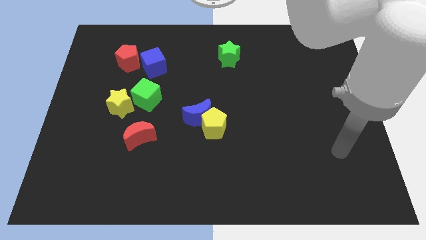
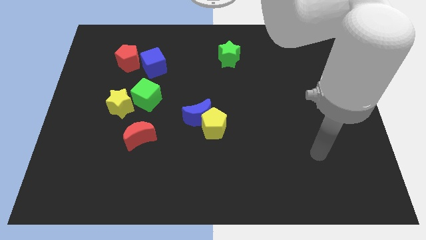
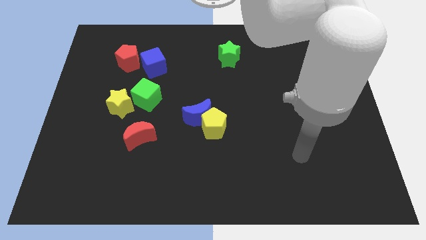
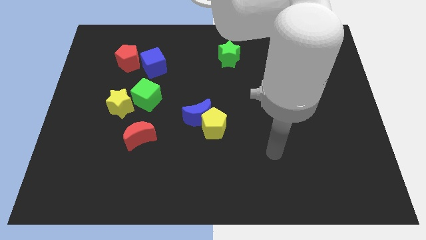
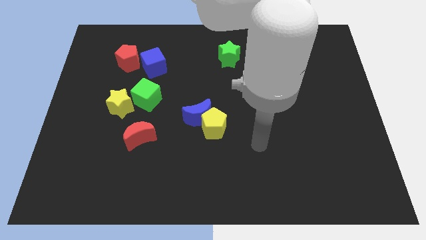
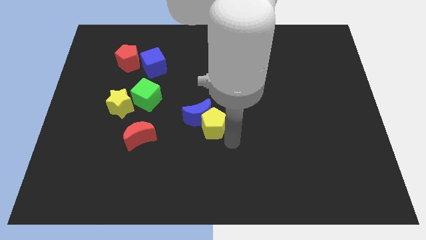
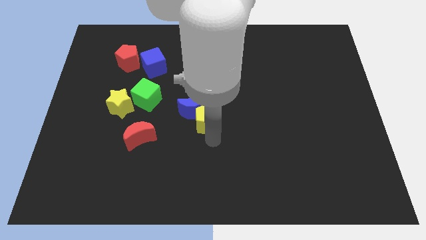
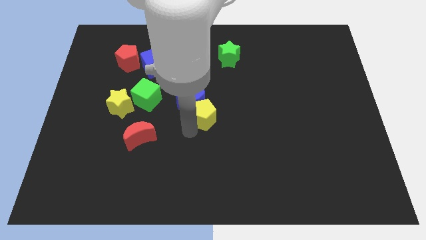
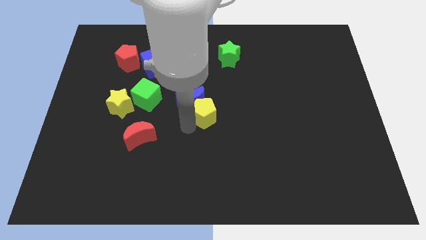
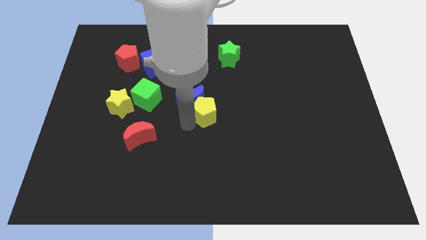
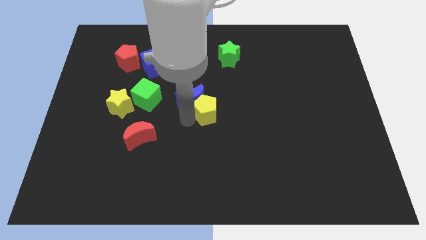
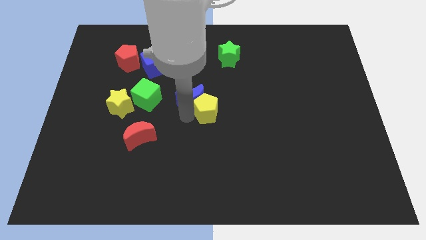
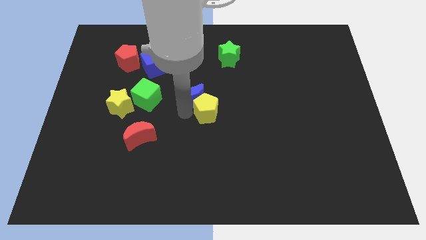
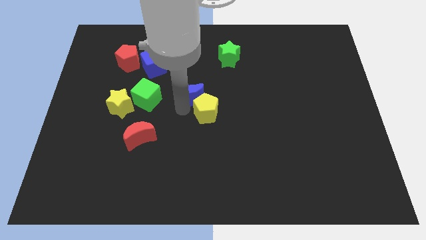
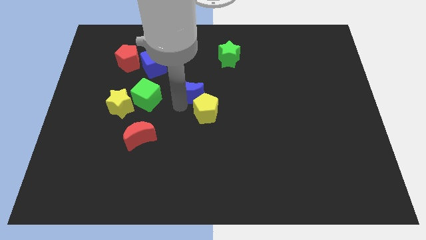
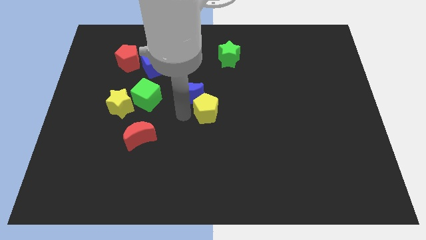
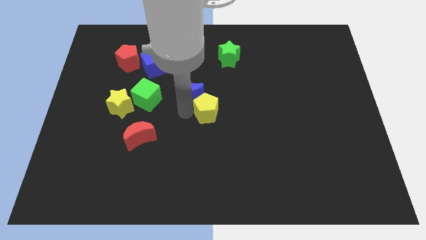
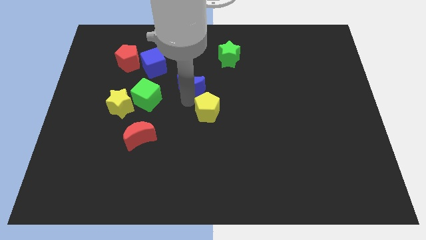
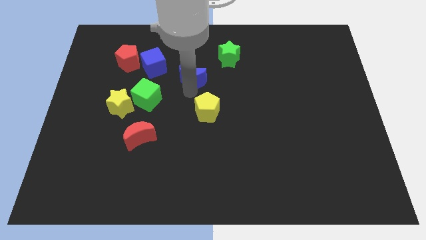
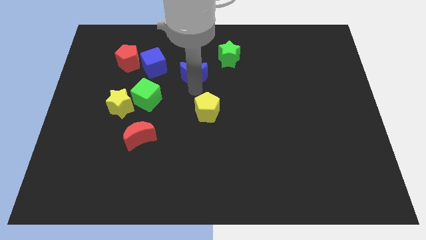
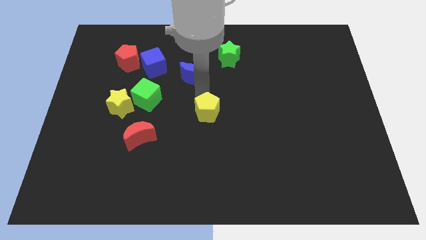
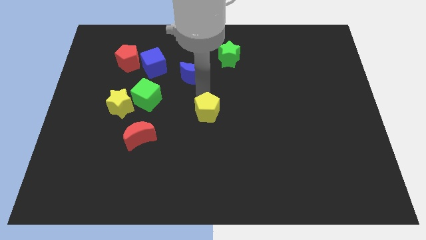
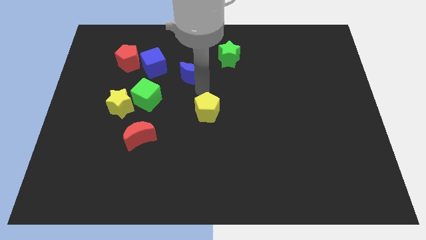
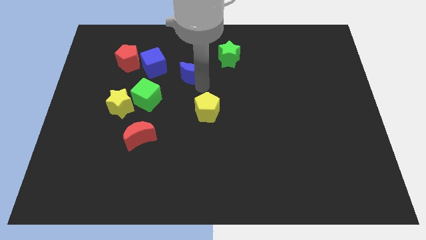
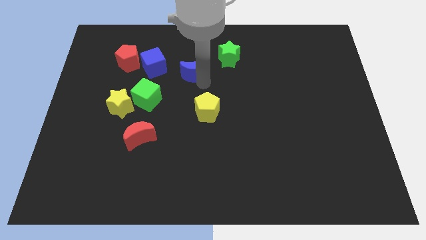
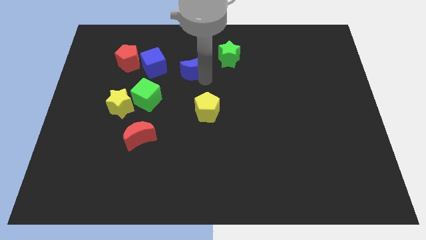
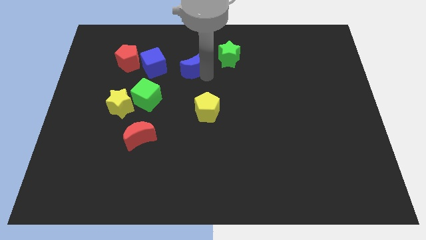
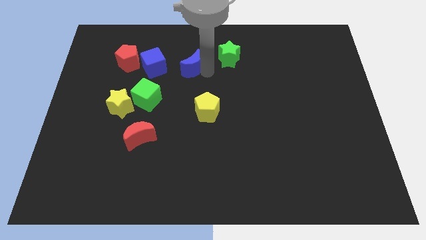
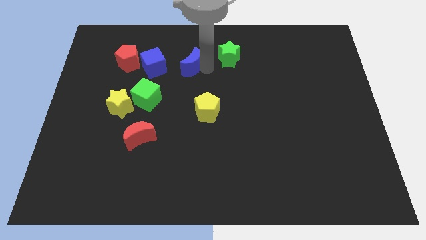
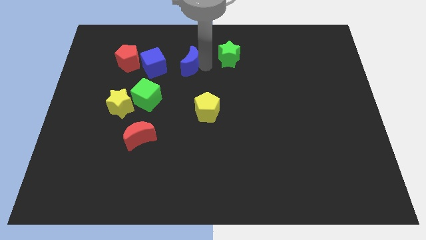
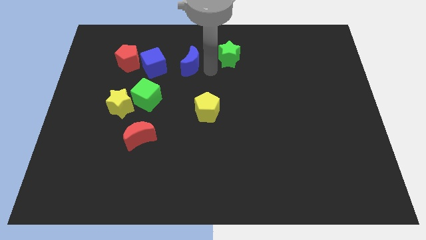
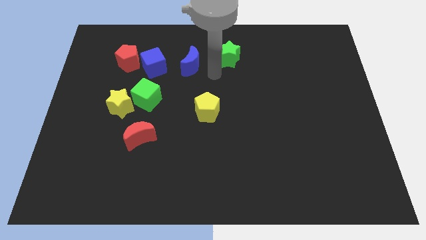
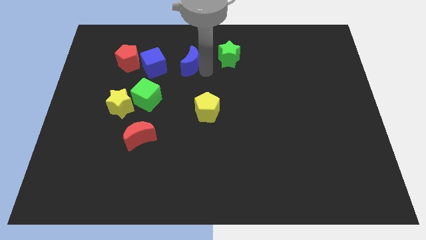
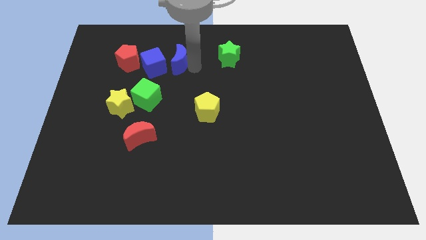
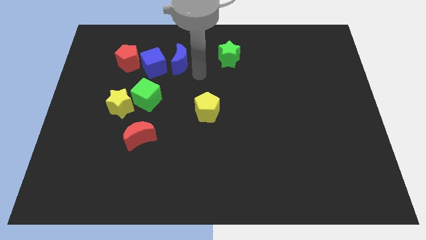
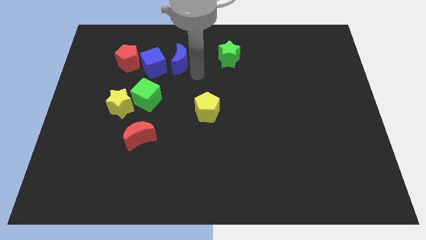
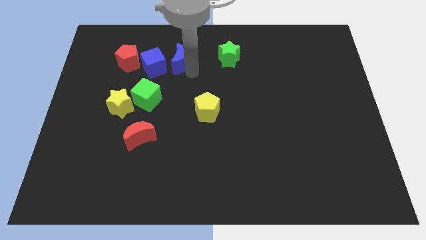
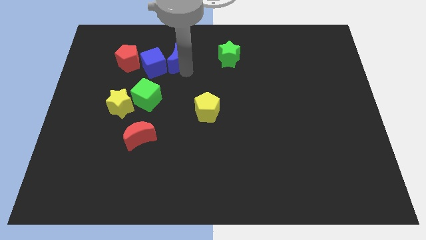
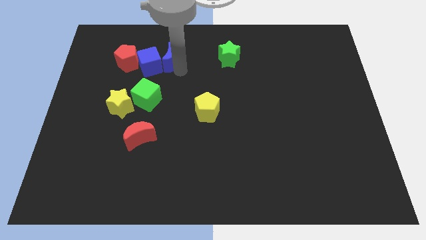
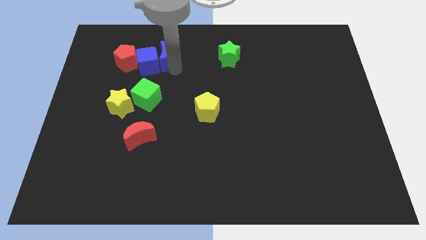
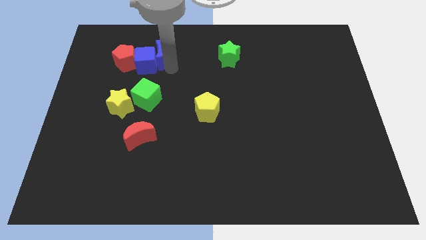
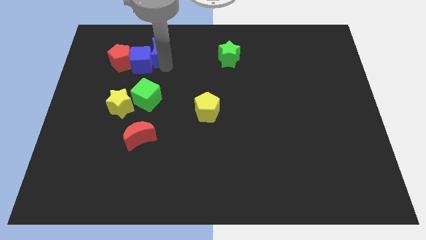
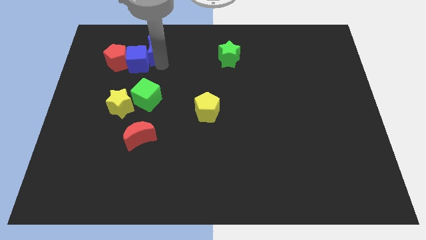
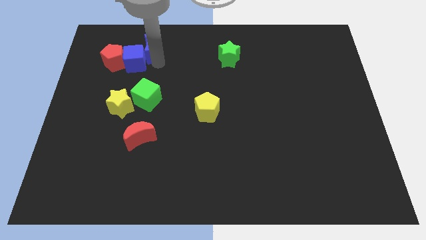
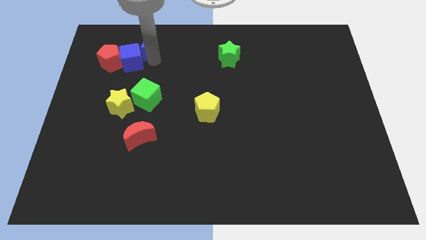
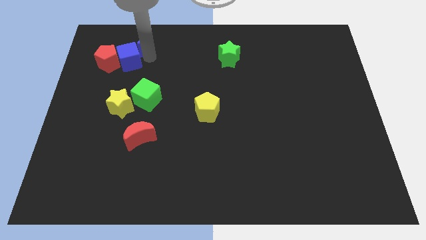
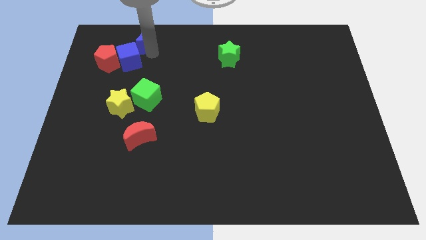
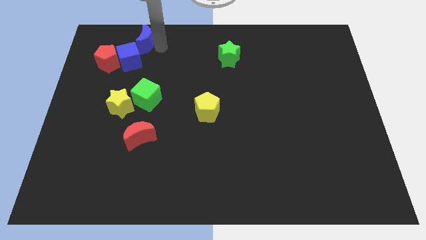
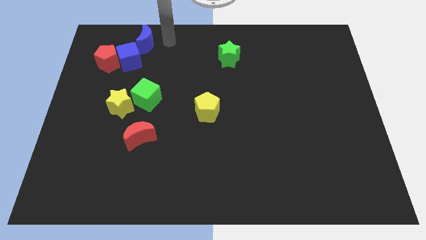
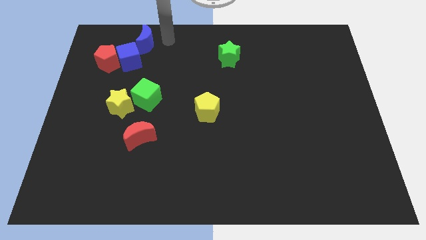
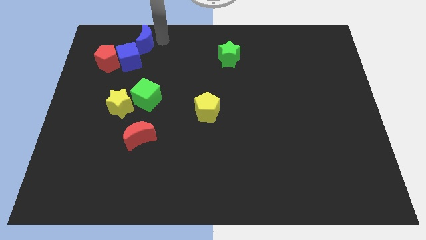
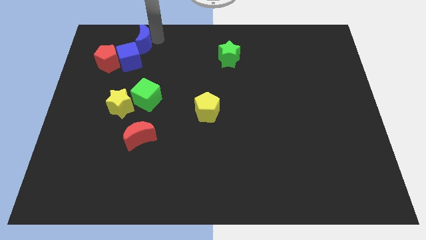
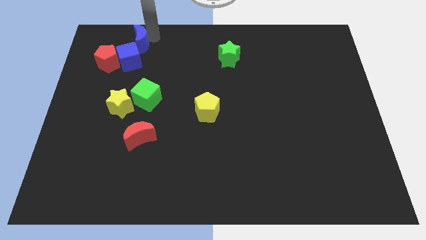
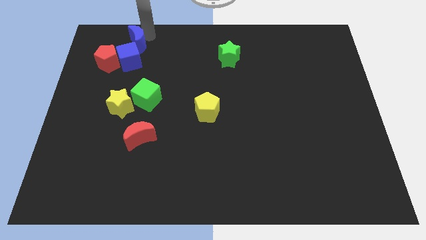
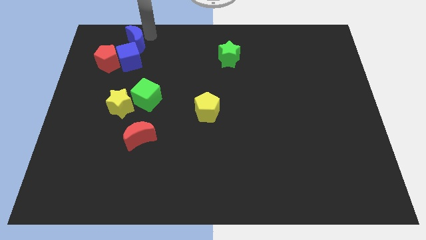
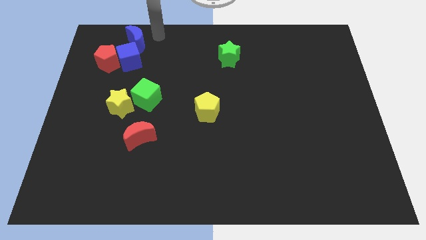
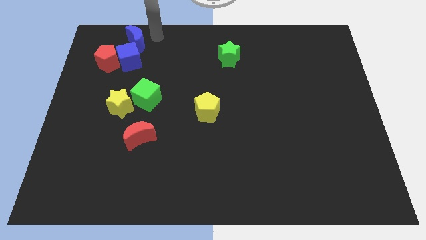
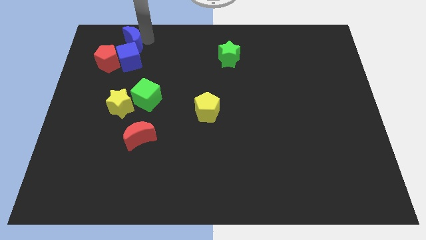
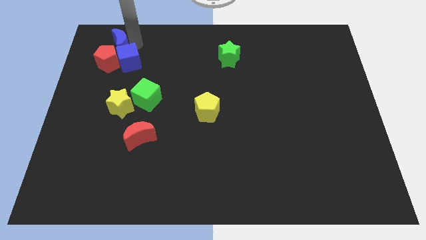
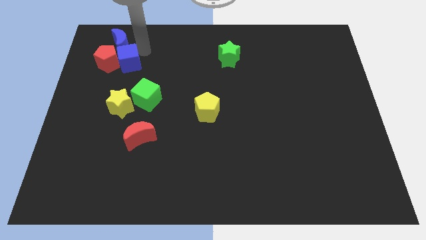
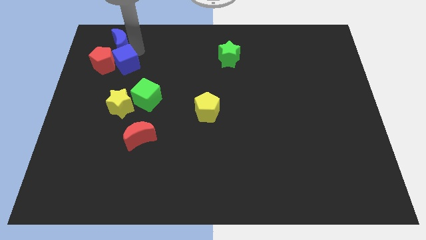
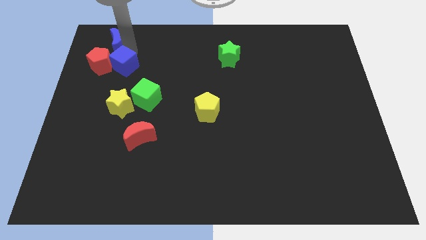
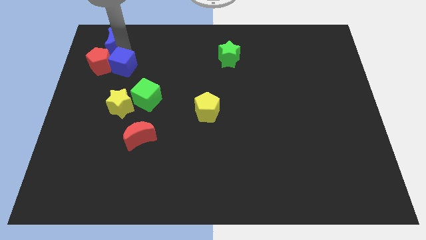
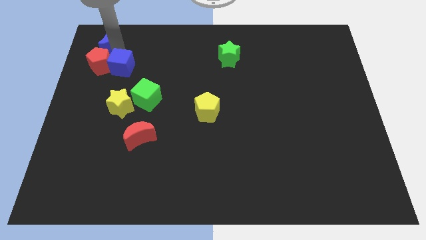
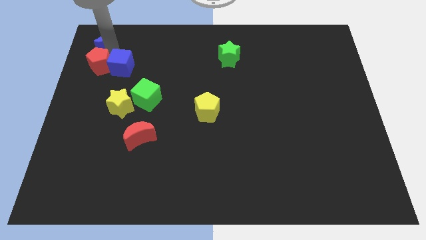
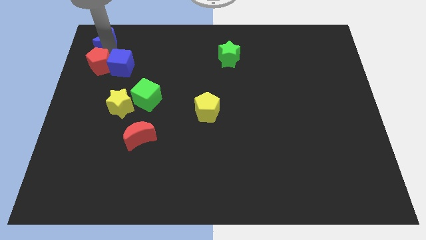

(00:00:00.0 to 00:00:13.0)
push the blue moon to the upper left corner
